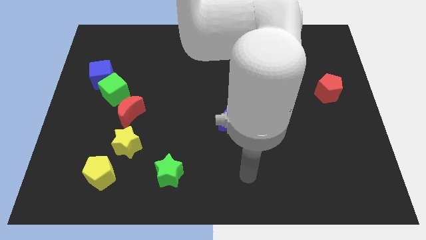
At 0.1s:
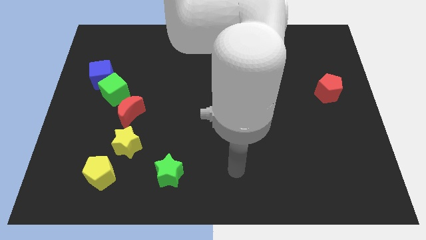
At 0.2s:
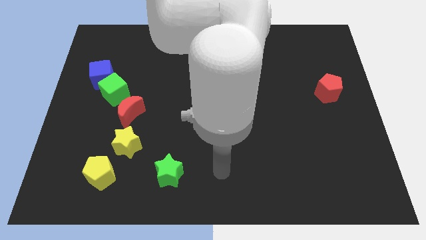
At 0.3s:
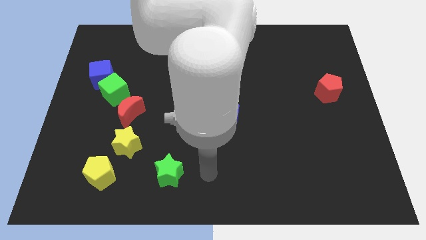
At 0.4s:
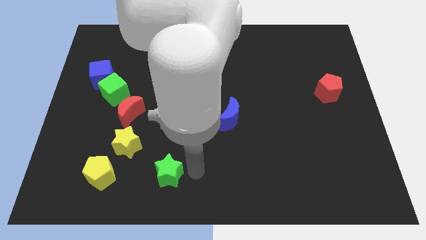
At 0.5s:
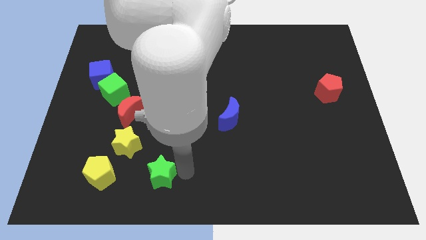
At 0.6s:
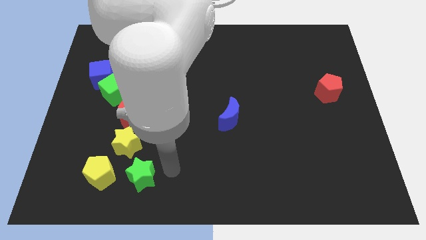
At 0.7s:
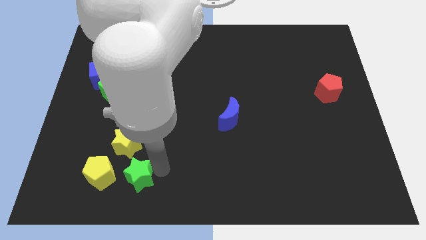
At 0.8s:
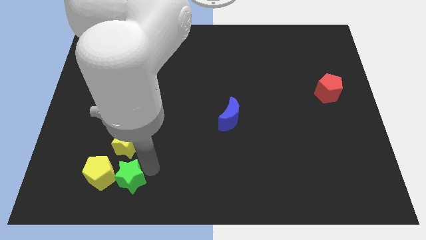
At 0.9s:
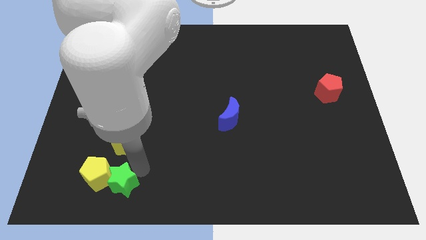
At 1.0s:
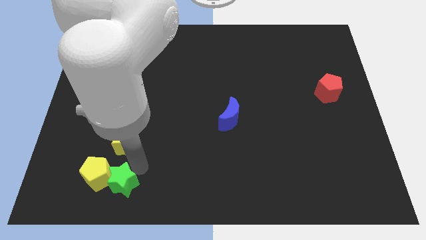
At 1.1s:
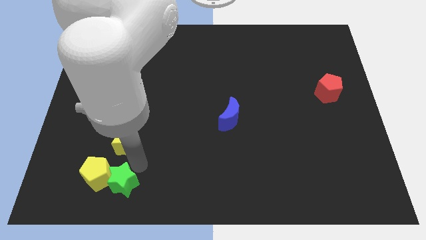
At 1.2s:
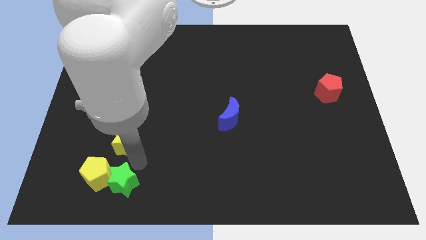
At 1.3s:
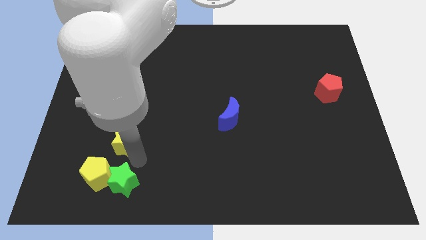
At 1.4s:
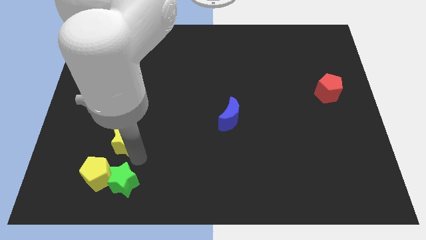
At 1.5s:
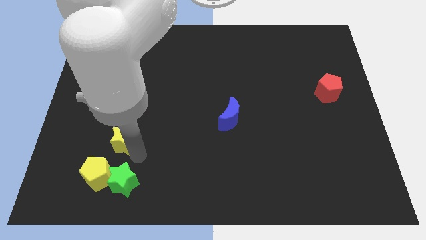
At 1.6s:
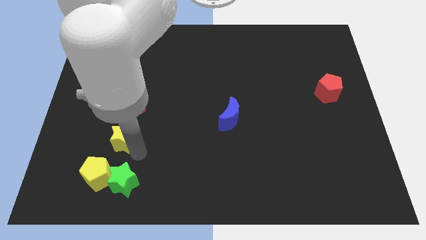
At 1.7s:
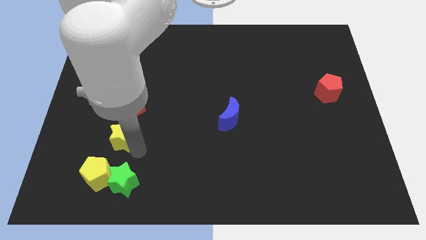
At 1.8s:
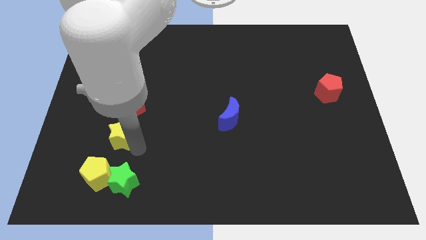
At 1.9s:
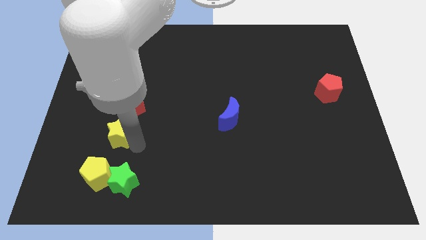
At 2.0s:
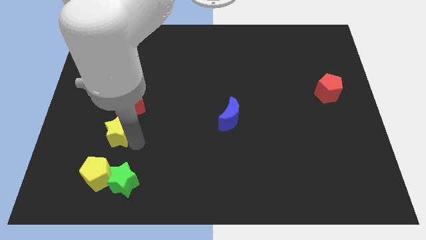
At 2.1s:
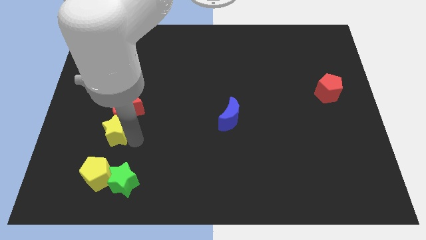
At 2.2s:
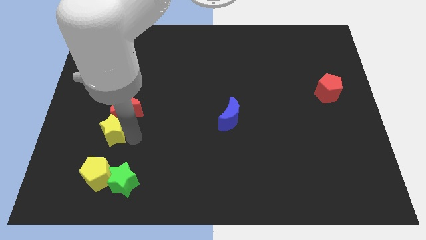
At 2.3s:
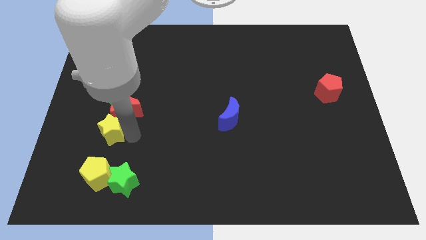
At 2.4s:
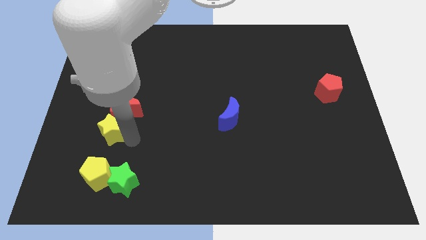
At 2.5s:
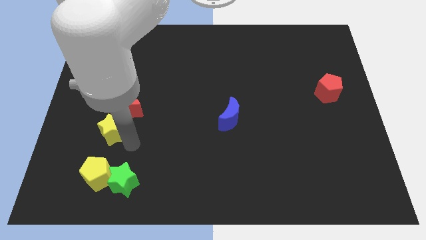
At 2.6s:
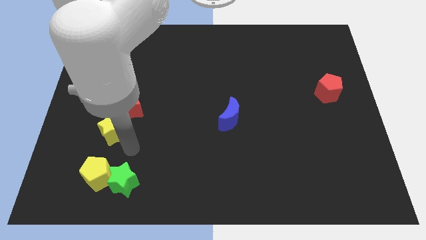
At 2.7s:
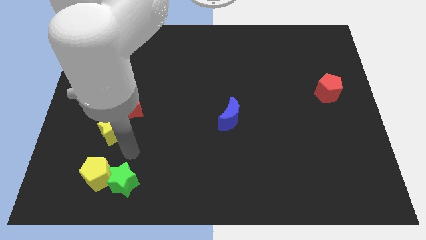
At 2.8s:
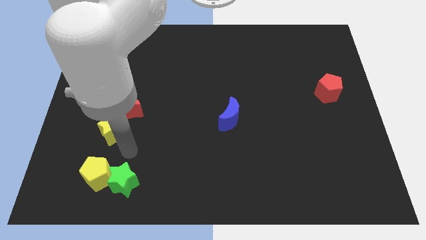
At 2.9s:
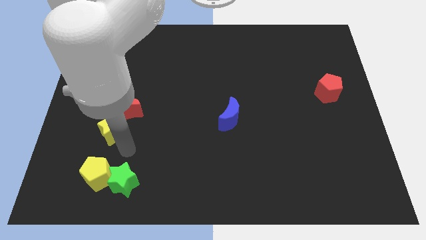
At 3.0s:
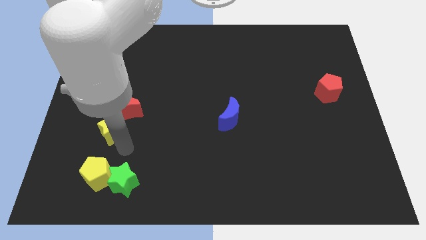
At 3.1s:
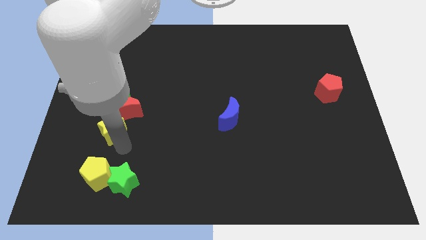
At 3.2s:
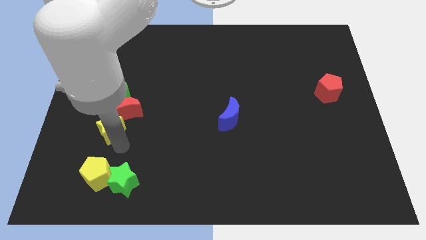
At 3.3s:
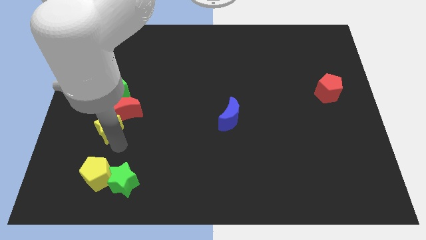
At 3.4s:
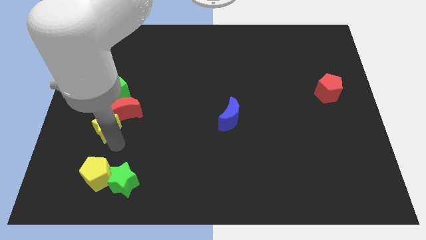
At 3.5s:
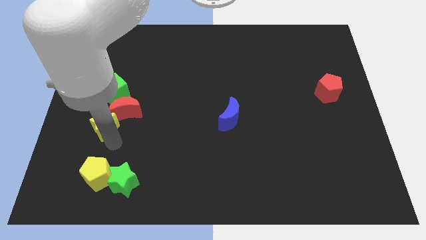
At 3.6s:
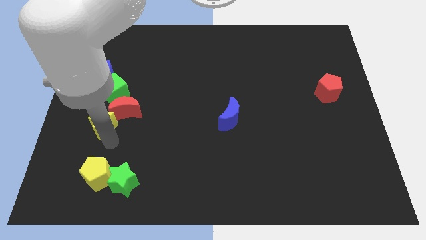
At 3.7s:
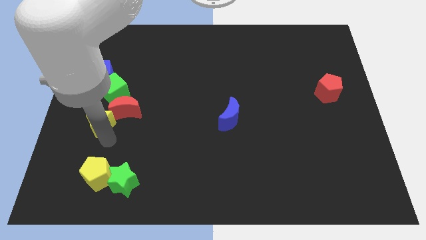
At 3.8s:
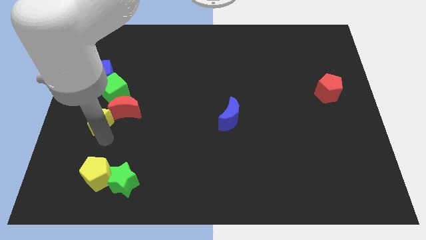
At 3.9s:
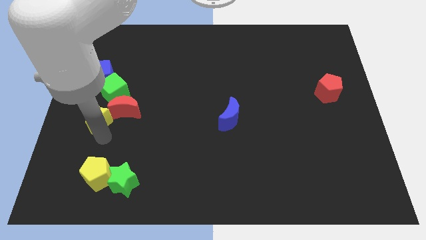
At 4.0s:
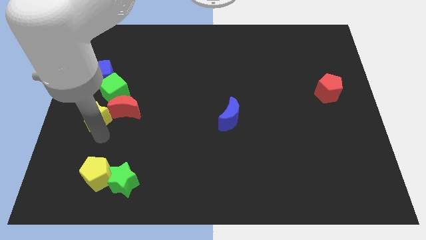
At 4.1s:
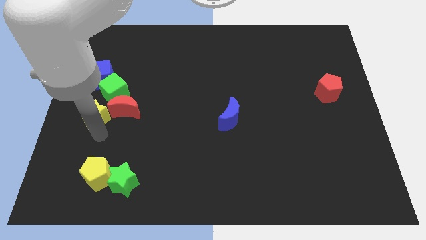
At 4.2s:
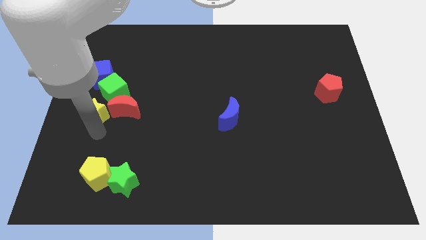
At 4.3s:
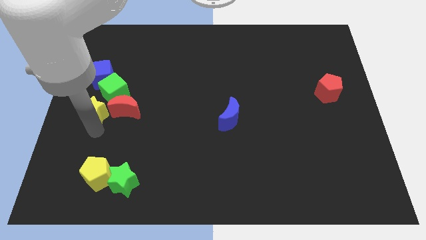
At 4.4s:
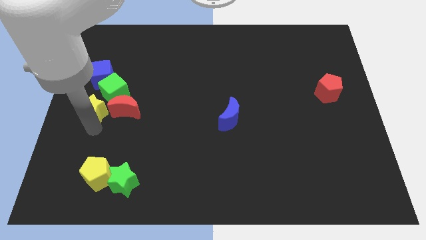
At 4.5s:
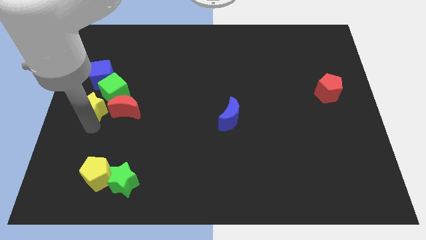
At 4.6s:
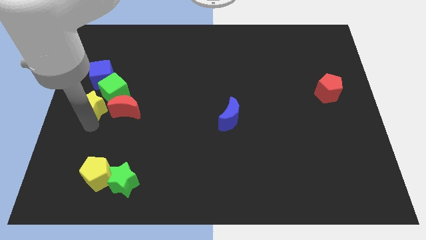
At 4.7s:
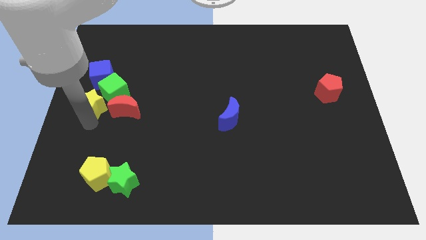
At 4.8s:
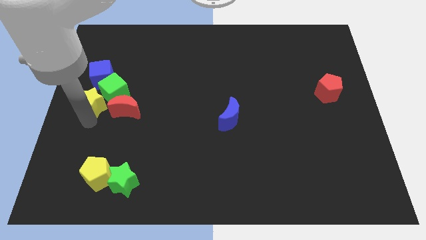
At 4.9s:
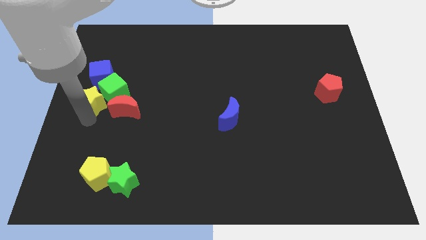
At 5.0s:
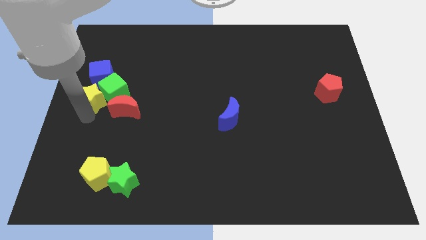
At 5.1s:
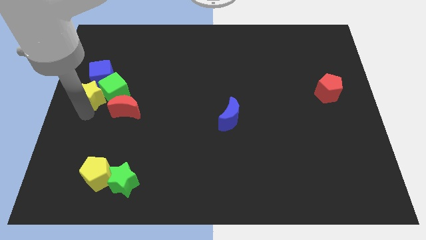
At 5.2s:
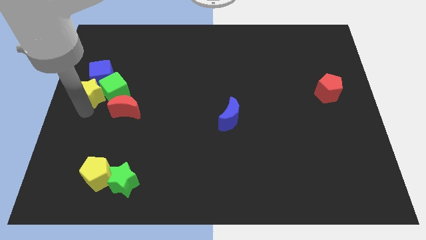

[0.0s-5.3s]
move the yellow star towards the blue cube

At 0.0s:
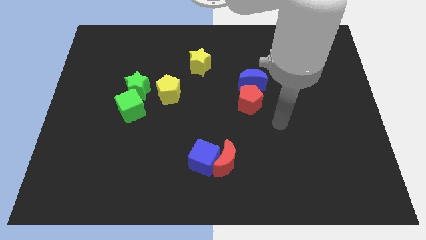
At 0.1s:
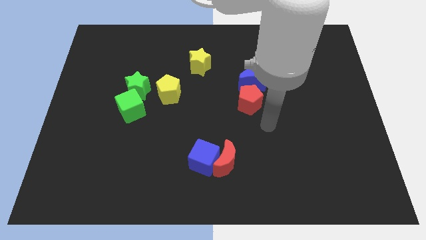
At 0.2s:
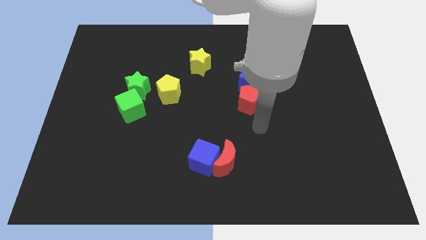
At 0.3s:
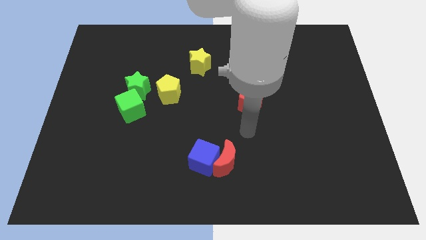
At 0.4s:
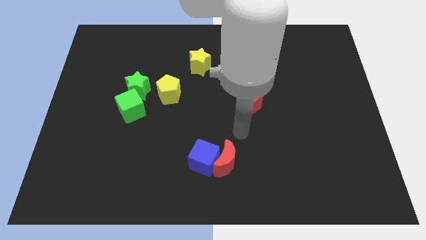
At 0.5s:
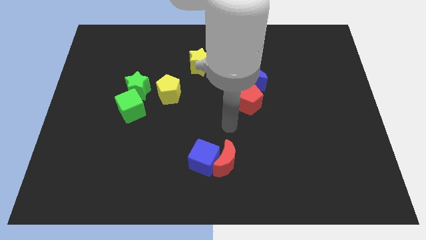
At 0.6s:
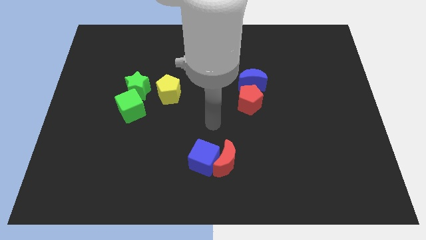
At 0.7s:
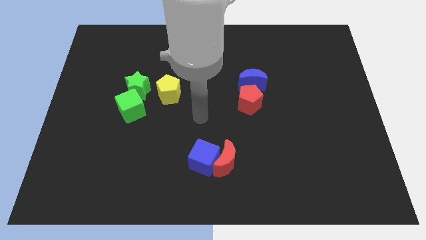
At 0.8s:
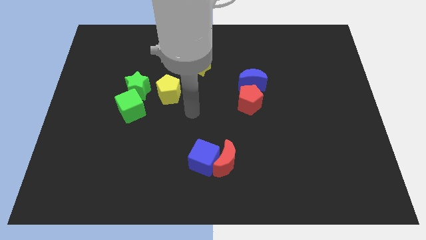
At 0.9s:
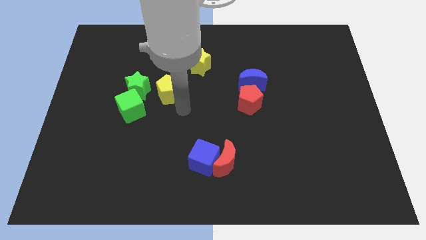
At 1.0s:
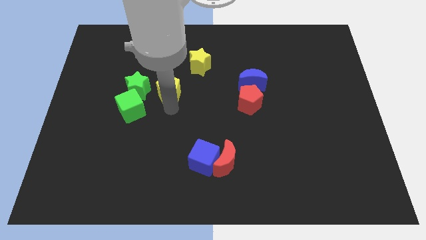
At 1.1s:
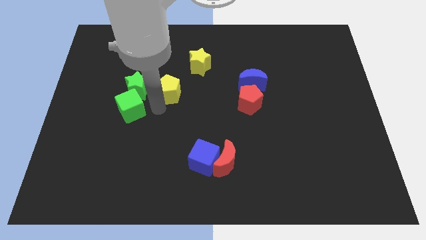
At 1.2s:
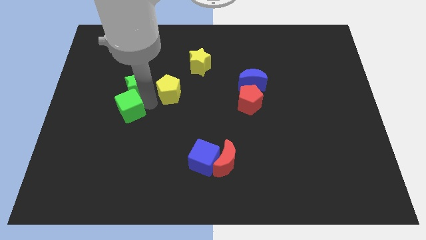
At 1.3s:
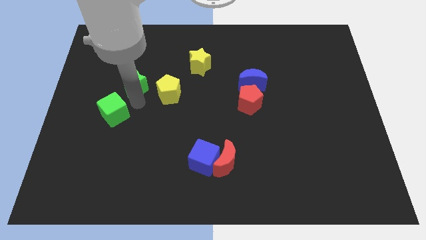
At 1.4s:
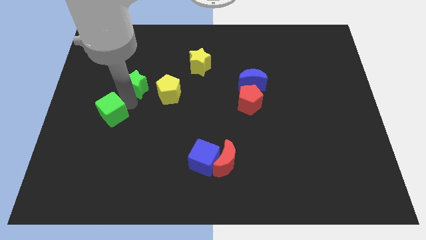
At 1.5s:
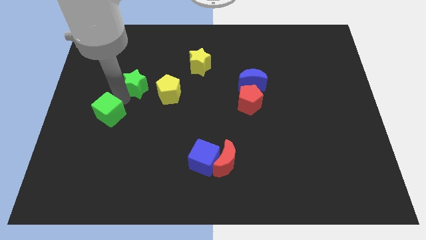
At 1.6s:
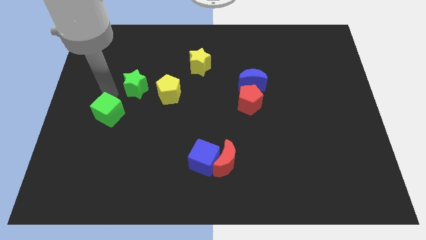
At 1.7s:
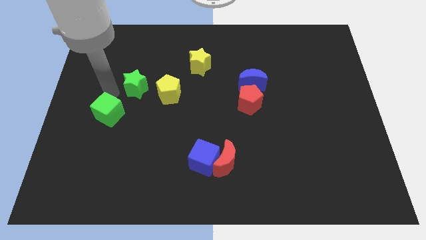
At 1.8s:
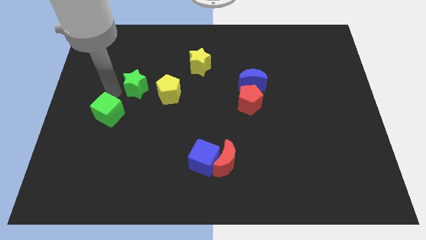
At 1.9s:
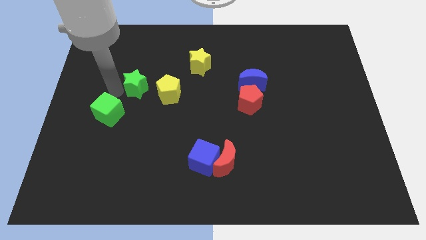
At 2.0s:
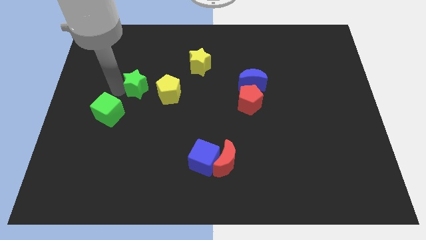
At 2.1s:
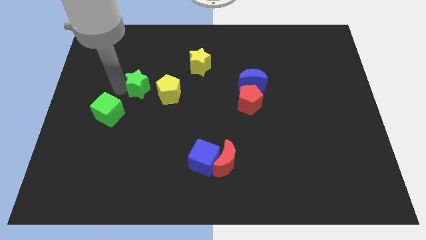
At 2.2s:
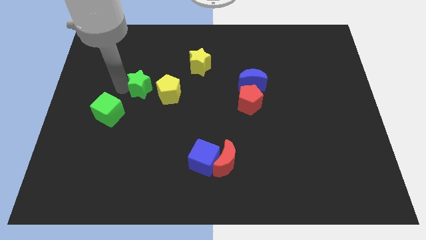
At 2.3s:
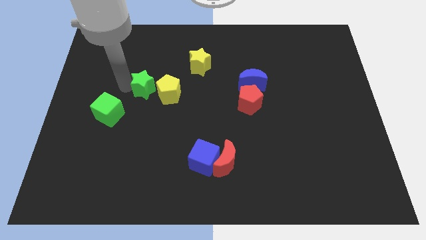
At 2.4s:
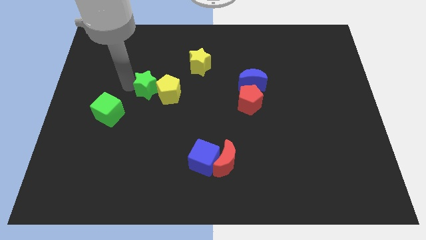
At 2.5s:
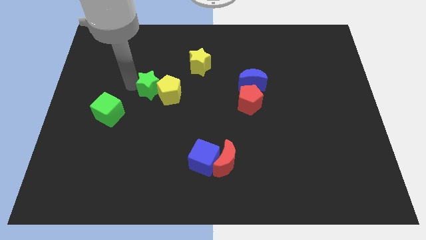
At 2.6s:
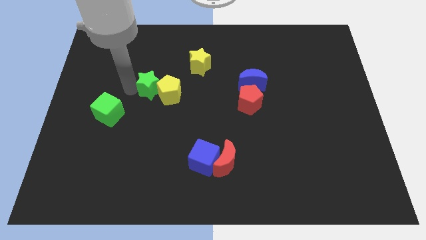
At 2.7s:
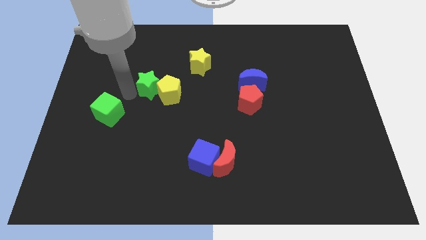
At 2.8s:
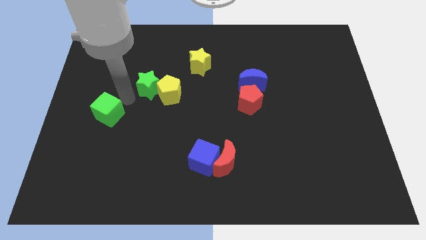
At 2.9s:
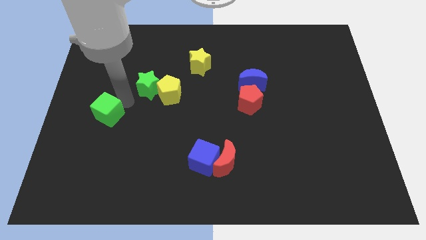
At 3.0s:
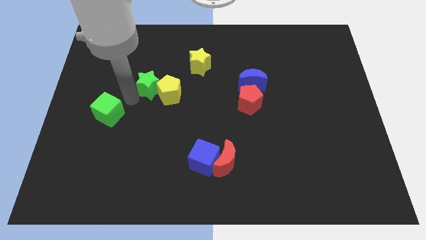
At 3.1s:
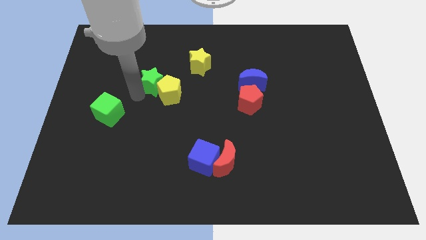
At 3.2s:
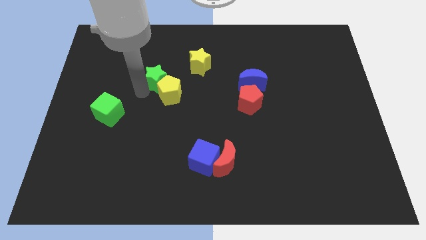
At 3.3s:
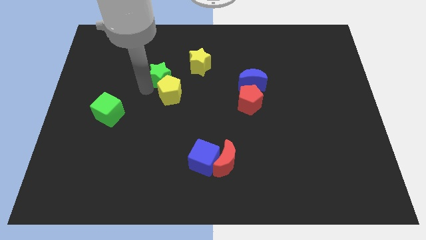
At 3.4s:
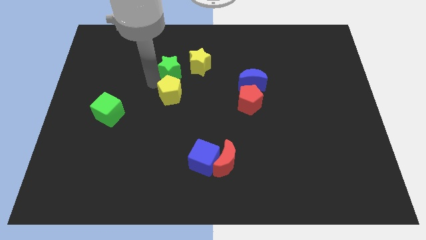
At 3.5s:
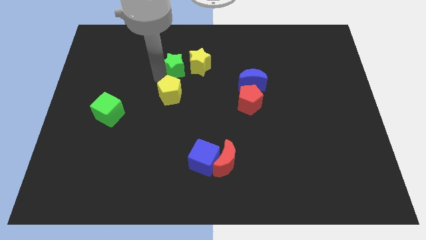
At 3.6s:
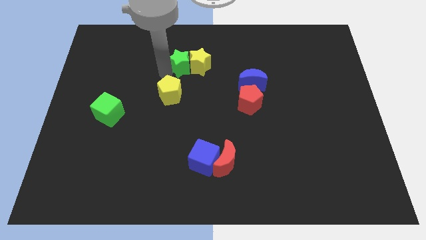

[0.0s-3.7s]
move the green star to the yellow star
